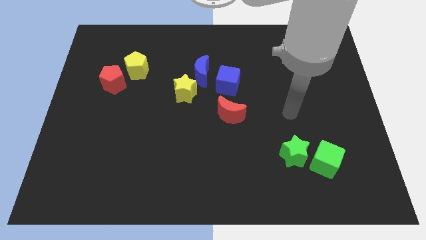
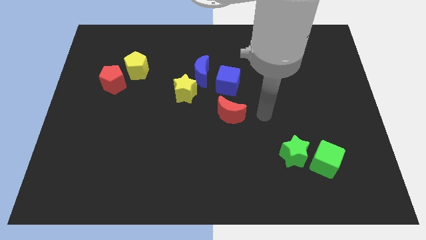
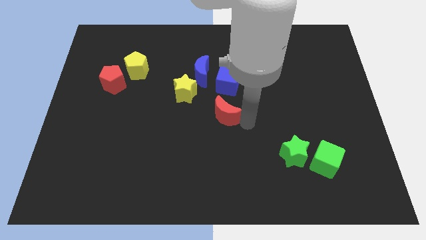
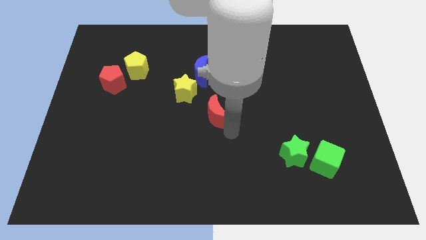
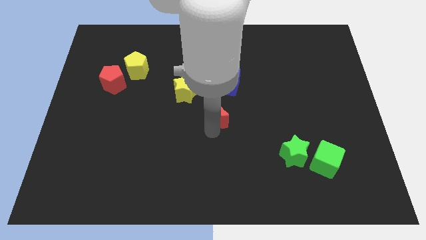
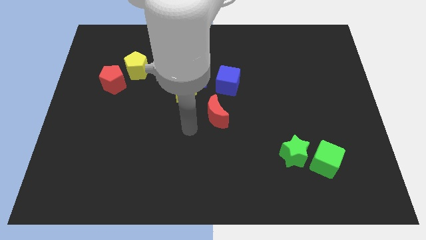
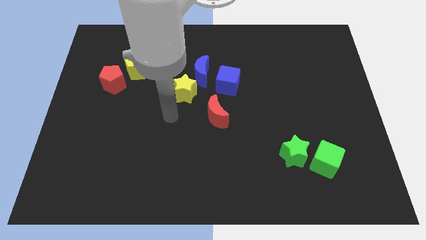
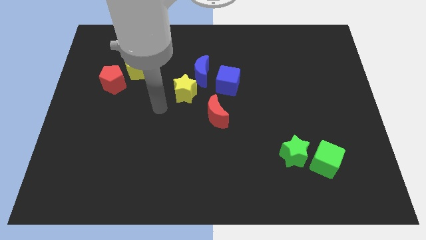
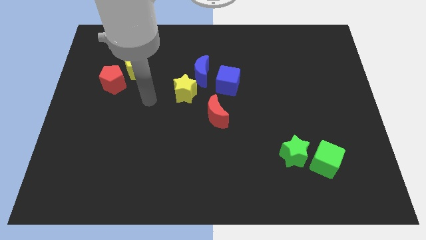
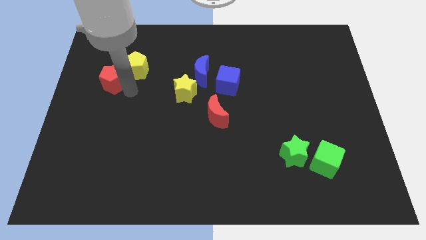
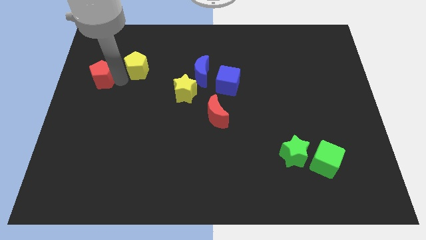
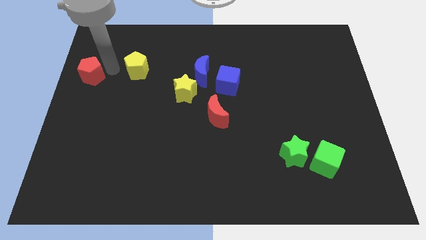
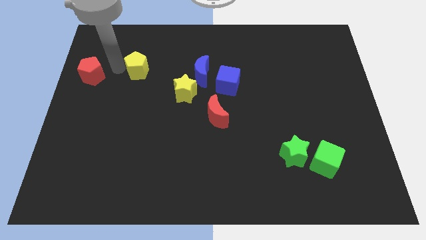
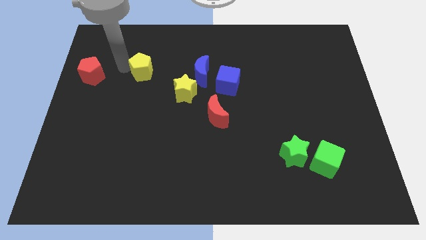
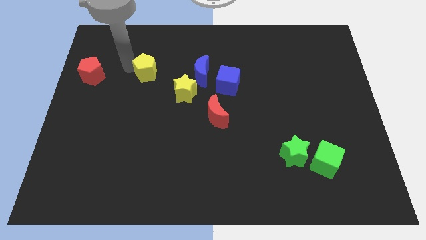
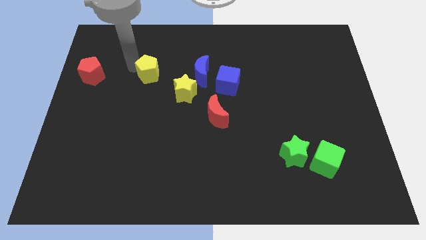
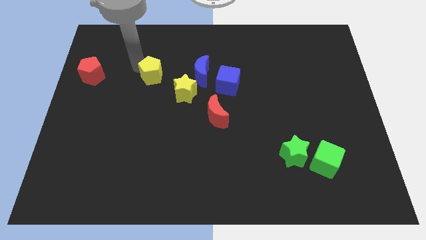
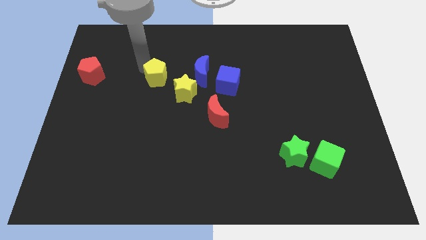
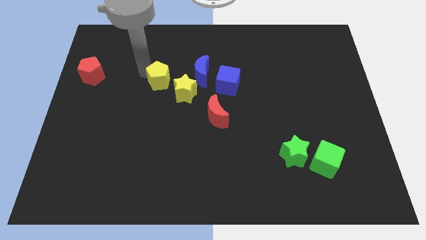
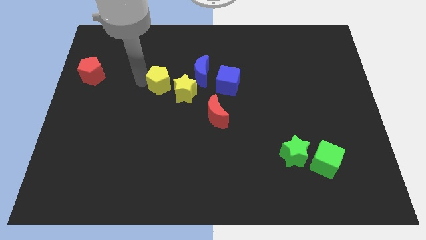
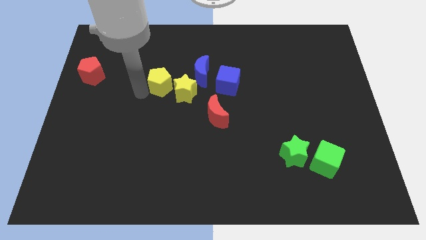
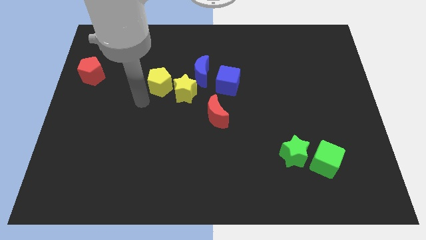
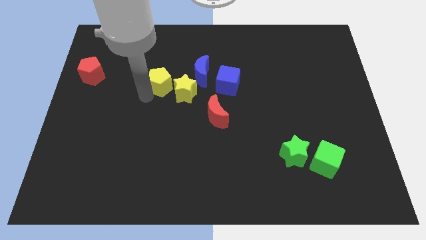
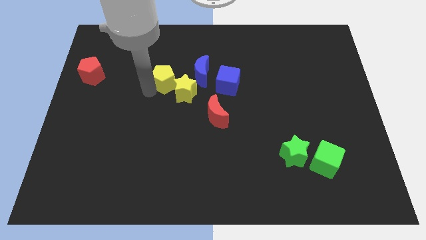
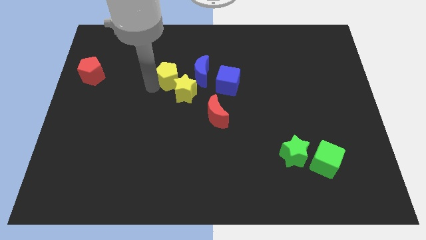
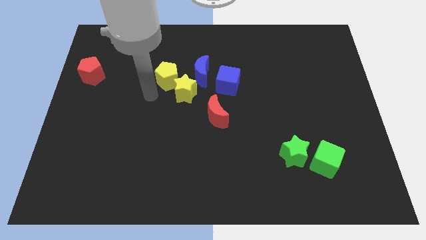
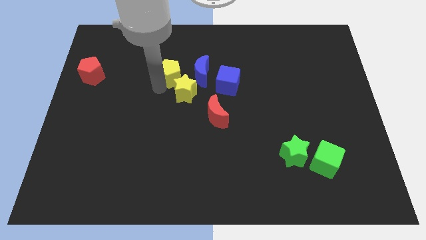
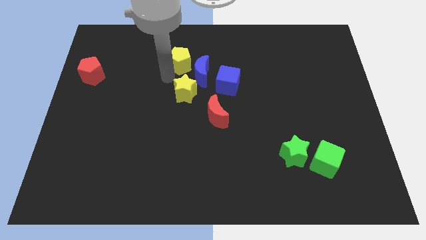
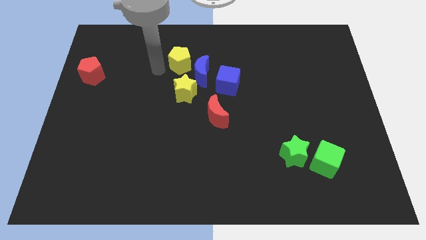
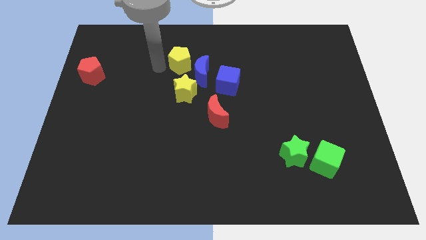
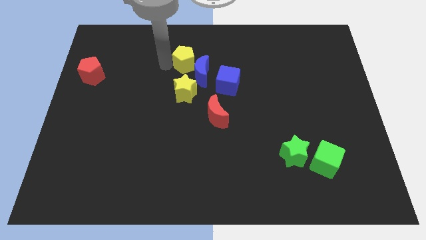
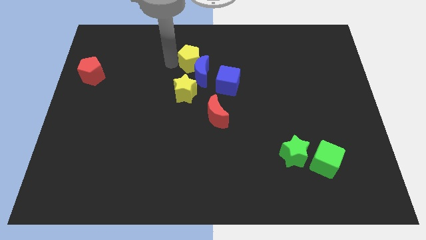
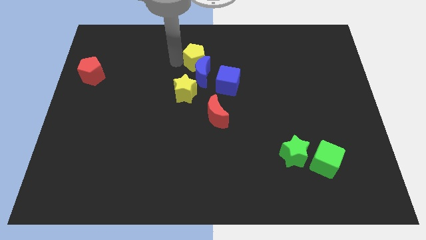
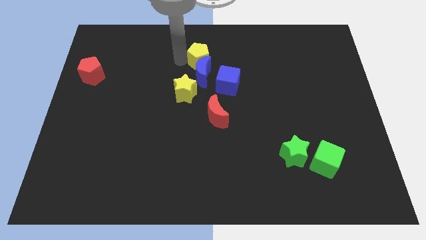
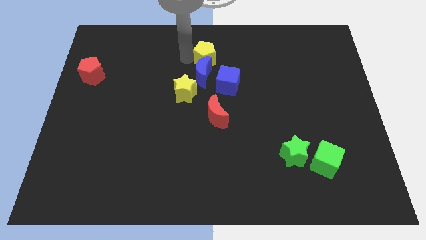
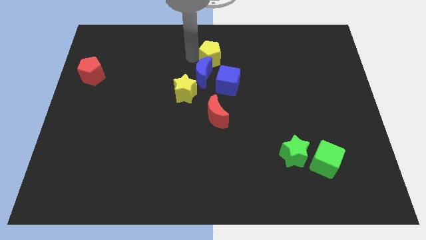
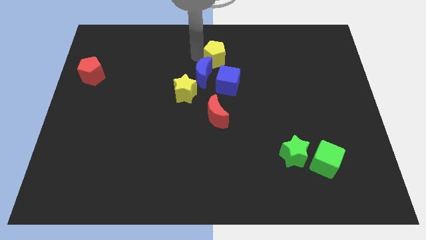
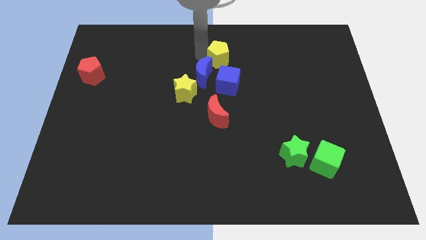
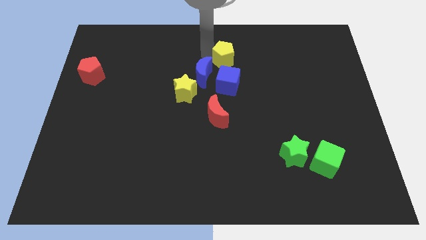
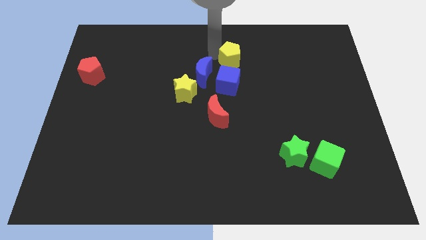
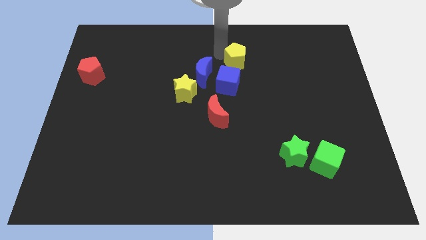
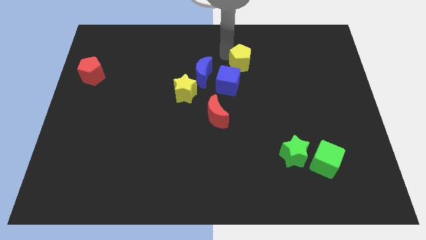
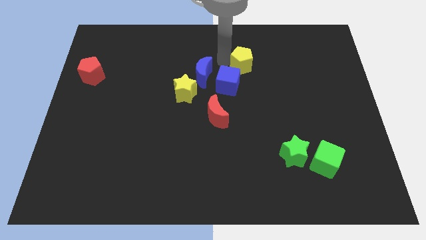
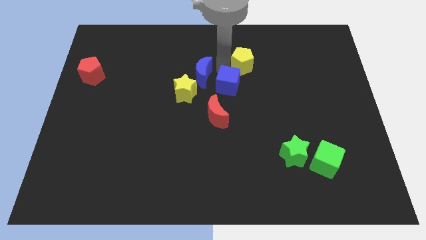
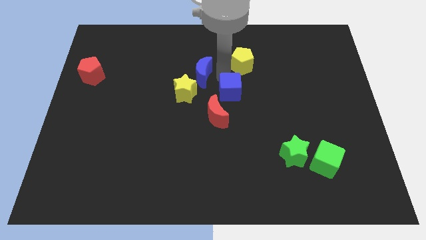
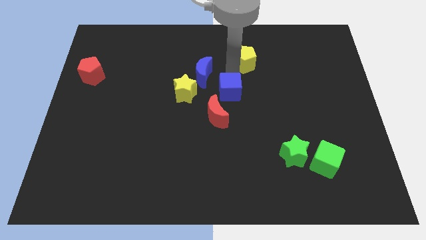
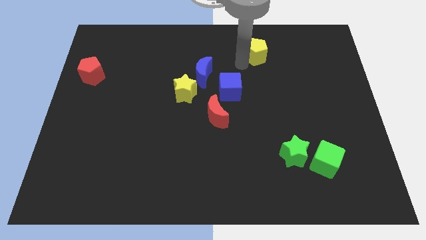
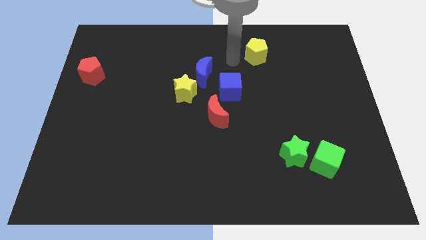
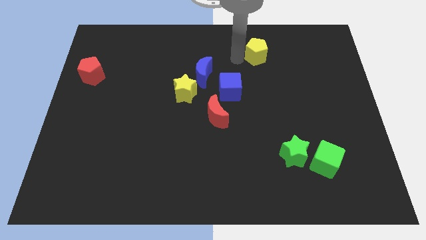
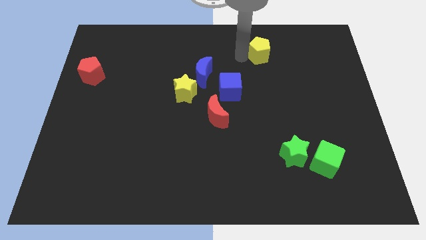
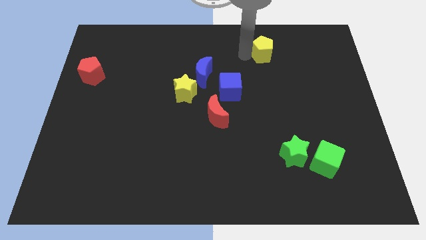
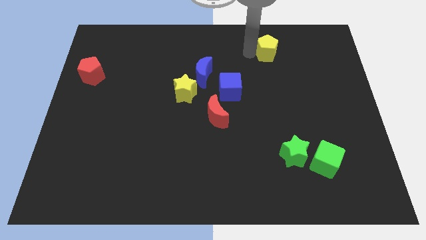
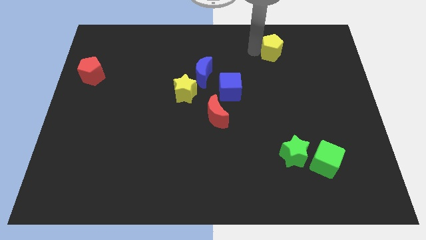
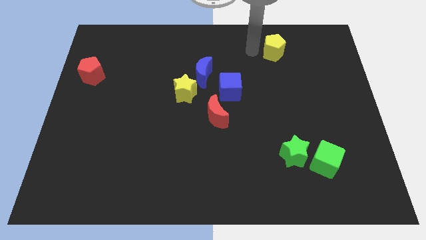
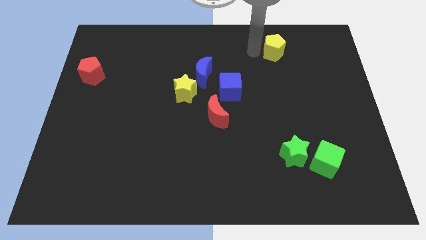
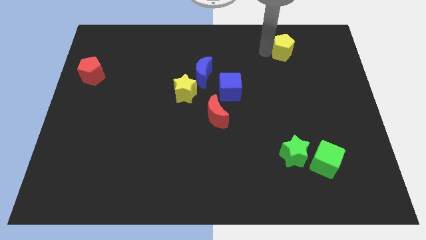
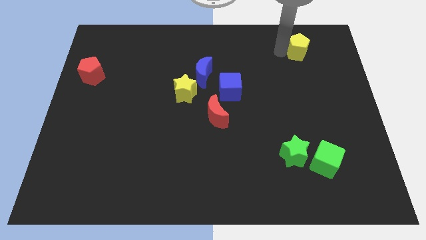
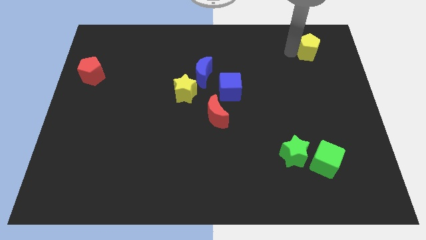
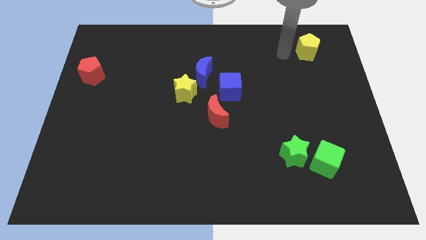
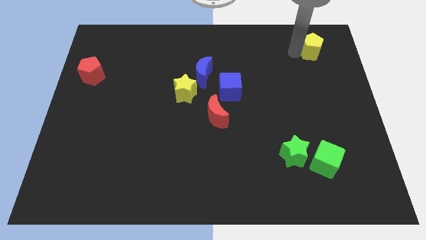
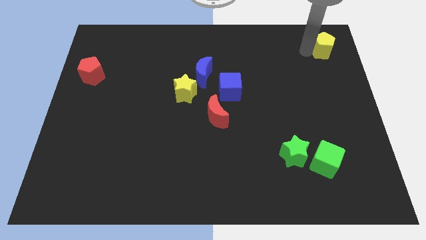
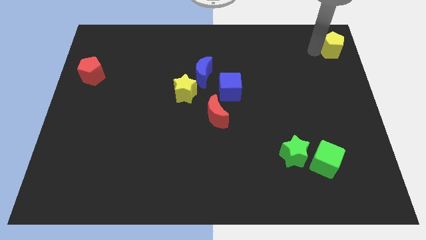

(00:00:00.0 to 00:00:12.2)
slide the yellow pentagon to the top right of the board

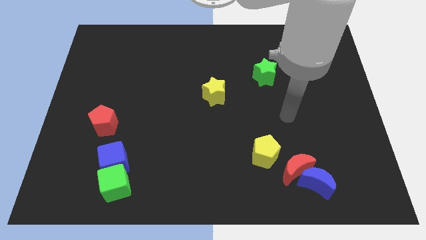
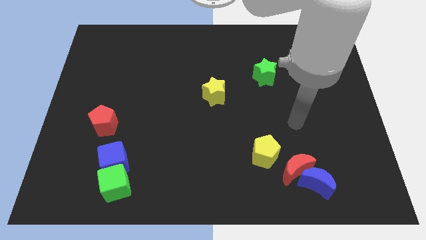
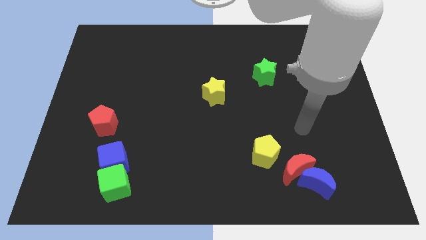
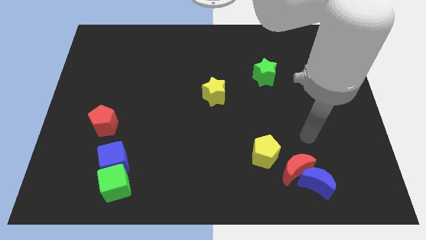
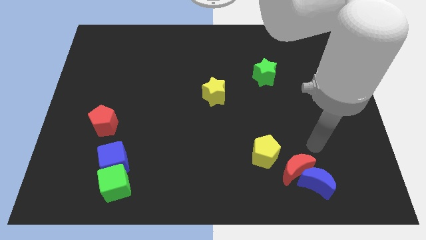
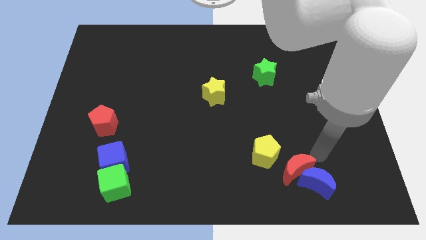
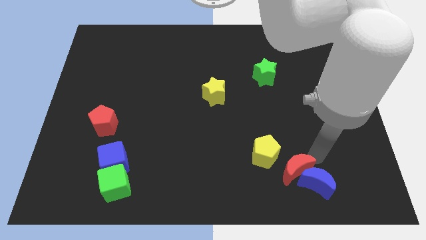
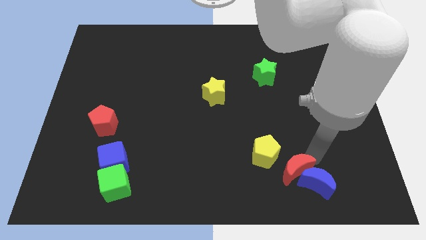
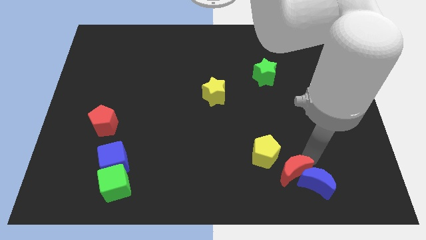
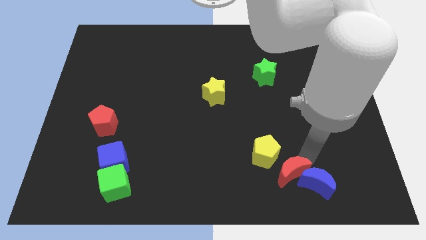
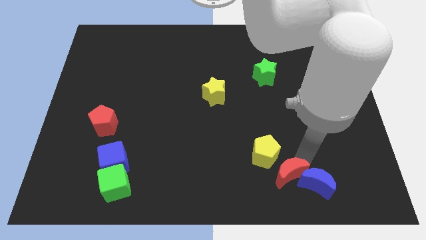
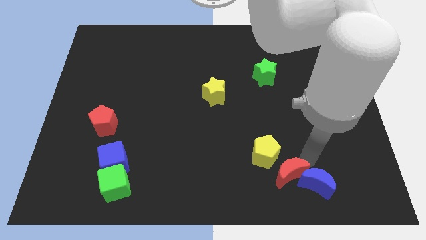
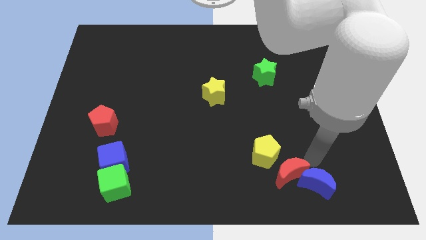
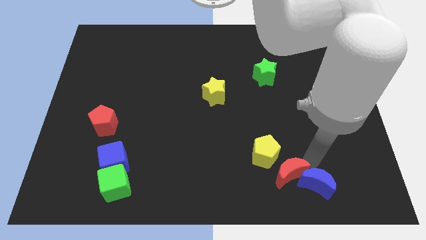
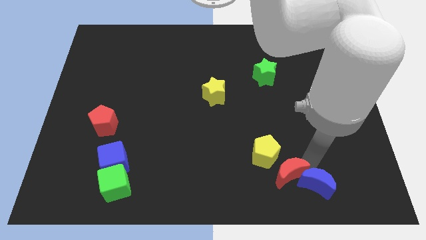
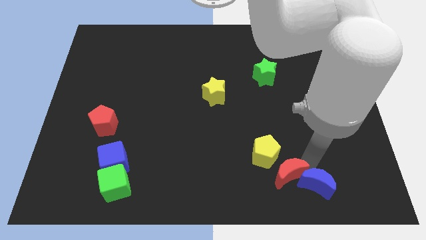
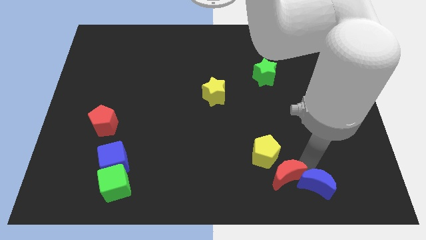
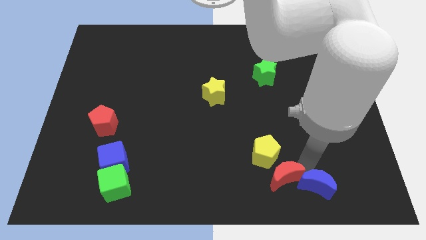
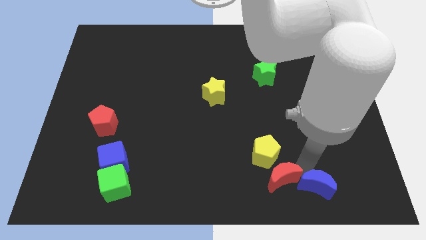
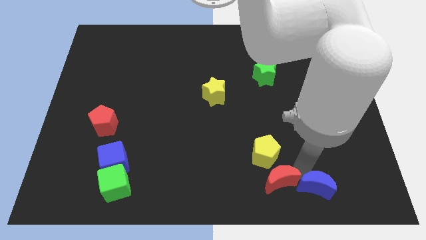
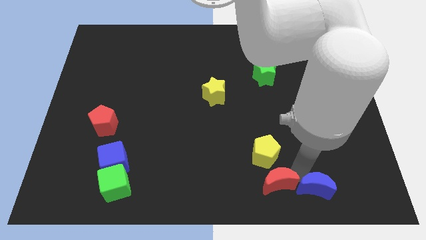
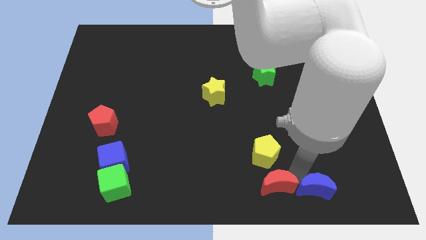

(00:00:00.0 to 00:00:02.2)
move the red moon to the bottom
